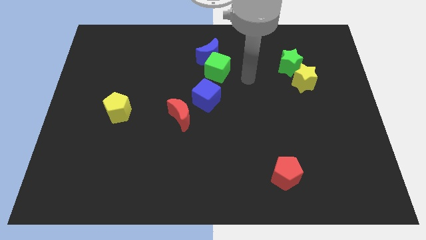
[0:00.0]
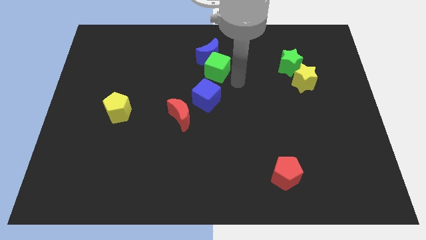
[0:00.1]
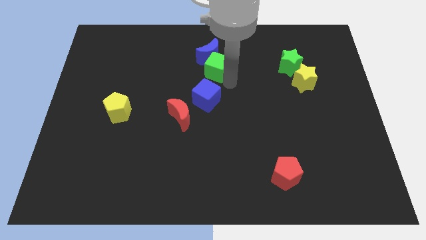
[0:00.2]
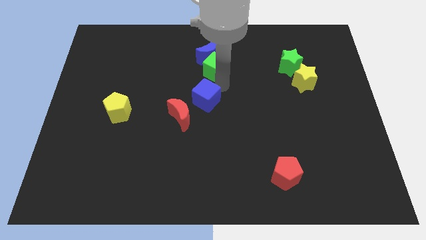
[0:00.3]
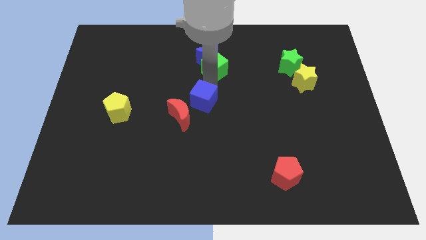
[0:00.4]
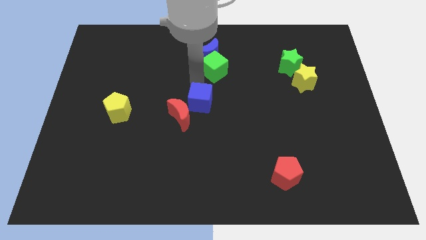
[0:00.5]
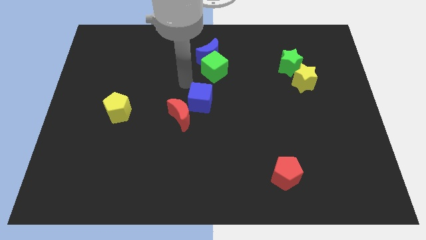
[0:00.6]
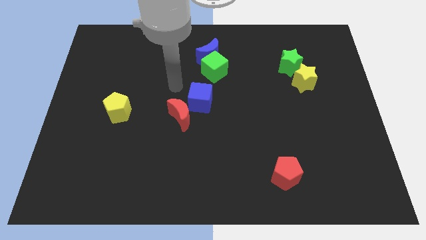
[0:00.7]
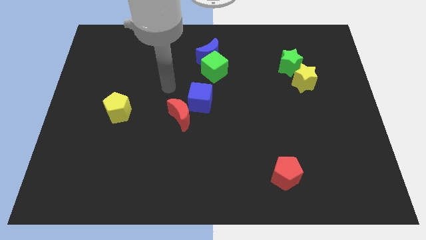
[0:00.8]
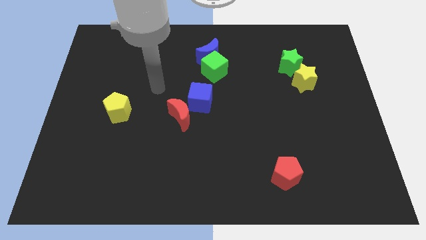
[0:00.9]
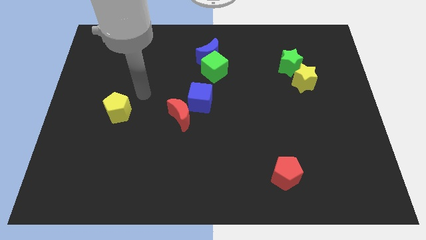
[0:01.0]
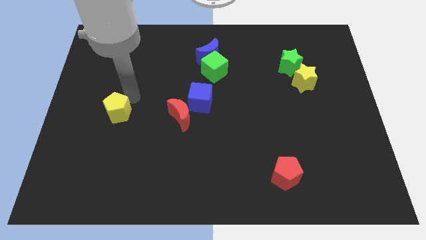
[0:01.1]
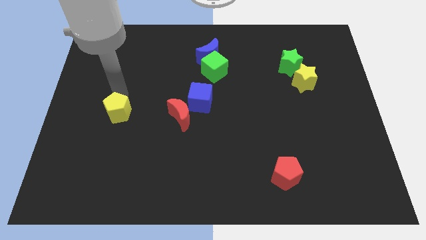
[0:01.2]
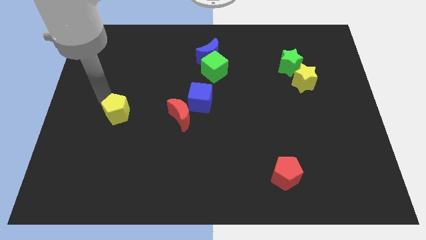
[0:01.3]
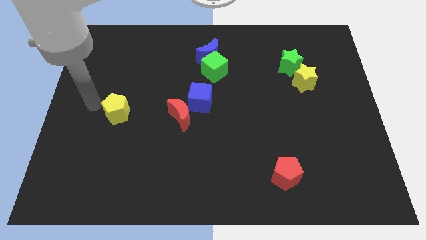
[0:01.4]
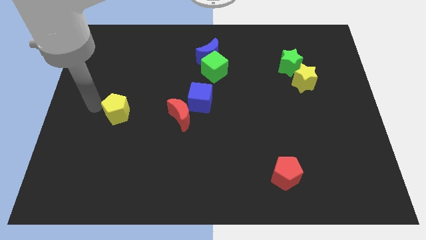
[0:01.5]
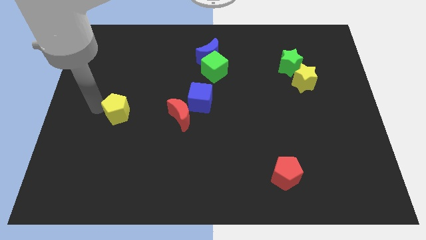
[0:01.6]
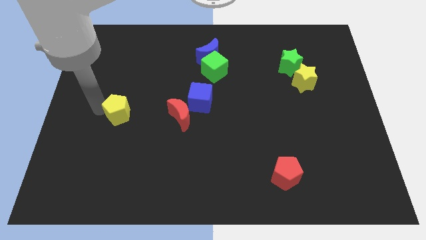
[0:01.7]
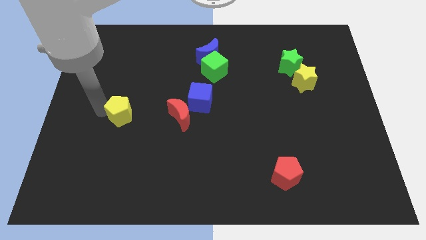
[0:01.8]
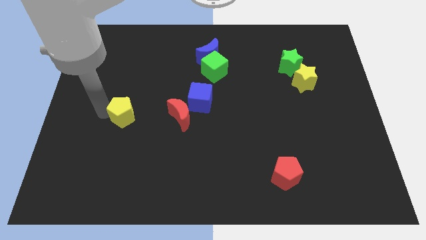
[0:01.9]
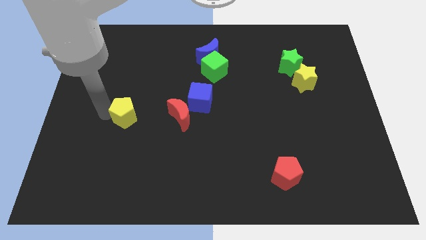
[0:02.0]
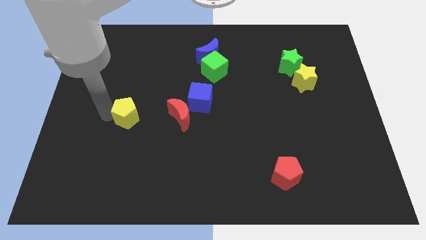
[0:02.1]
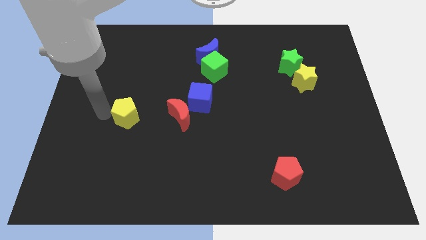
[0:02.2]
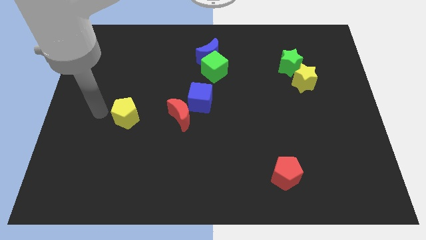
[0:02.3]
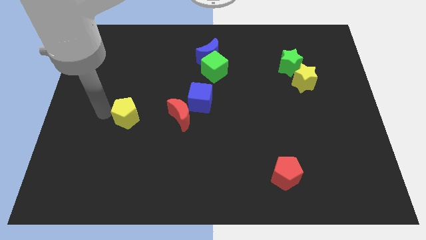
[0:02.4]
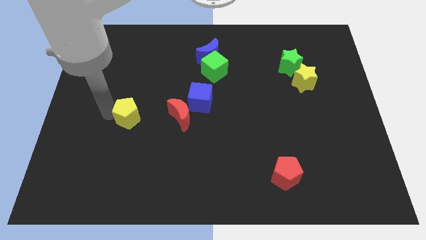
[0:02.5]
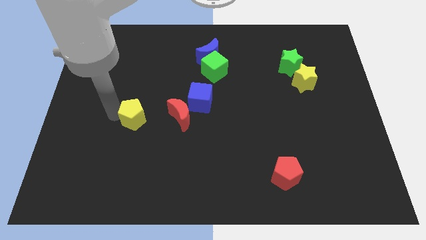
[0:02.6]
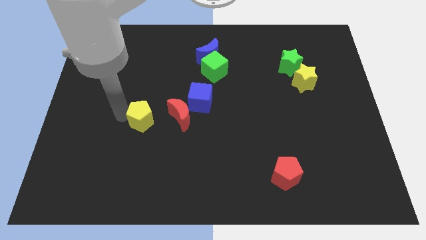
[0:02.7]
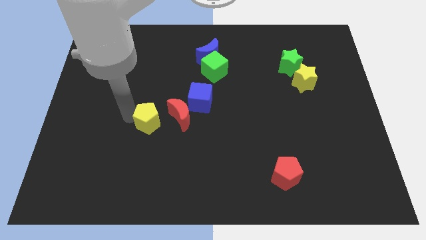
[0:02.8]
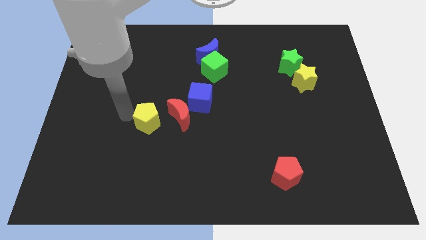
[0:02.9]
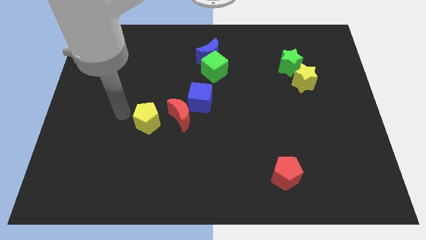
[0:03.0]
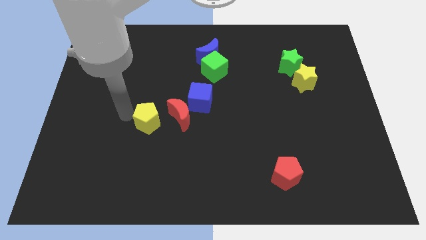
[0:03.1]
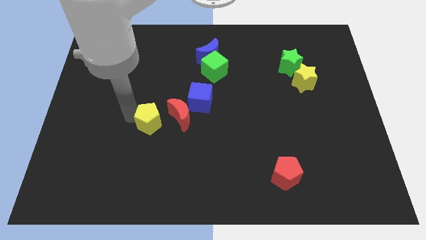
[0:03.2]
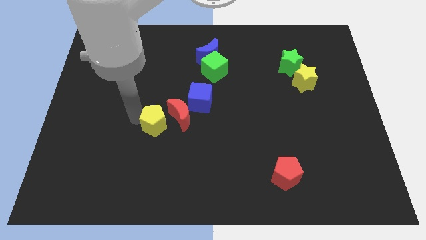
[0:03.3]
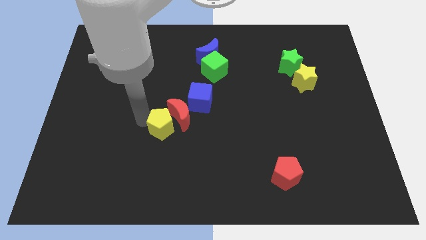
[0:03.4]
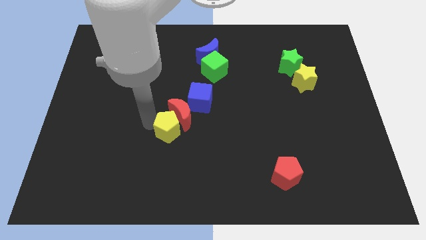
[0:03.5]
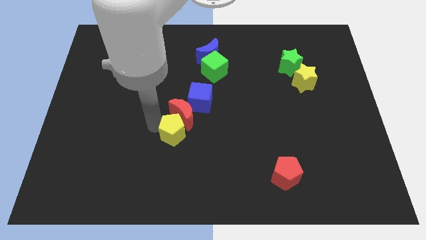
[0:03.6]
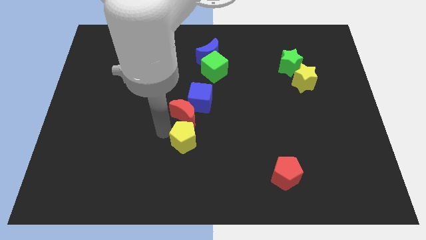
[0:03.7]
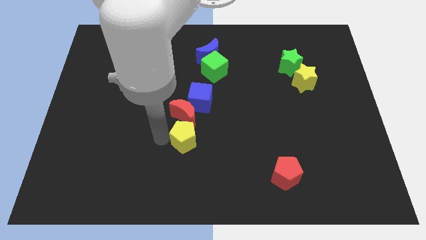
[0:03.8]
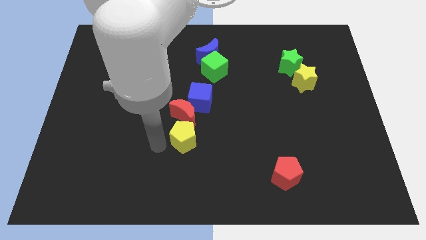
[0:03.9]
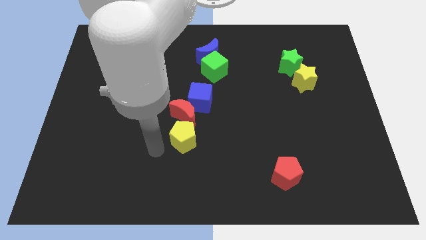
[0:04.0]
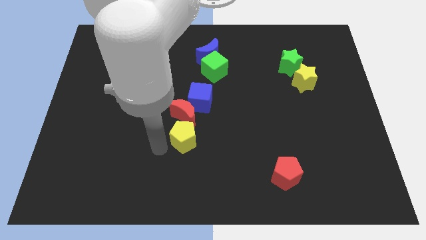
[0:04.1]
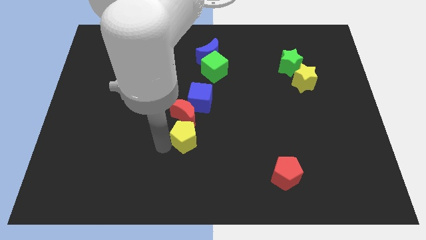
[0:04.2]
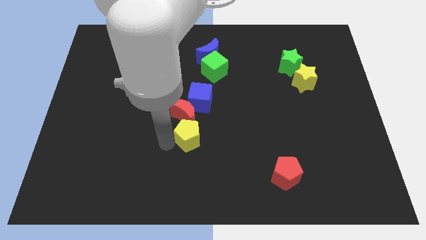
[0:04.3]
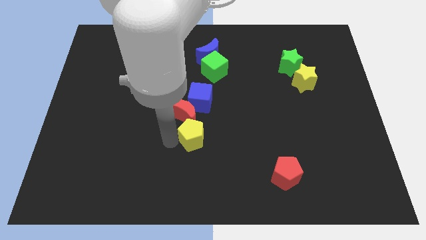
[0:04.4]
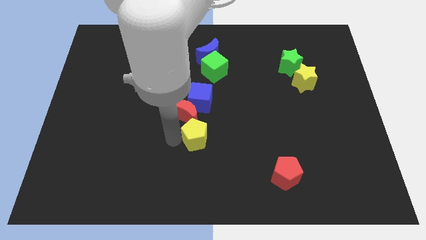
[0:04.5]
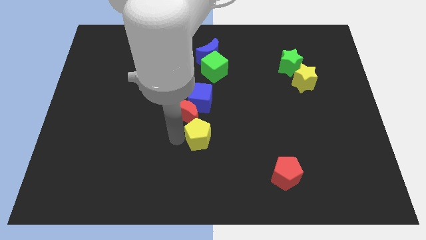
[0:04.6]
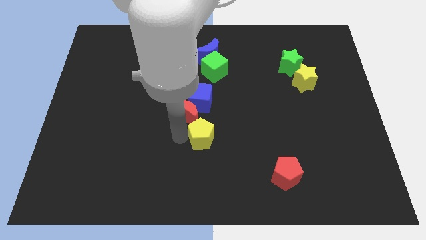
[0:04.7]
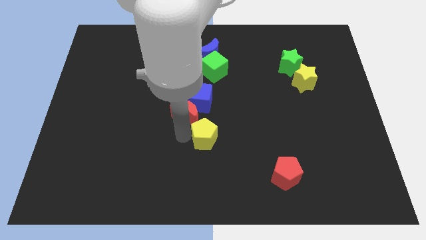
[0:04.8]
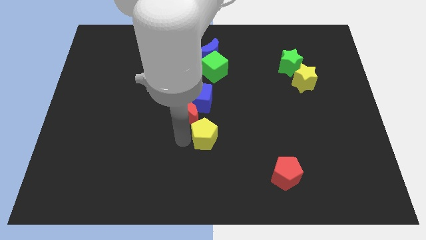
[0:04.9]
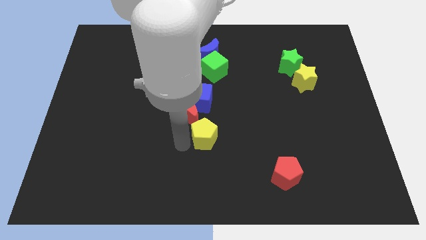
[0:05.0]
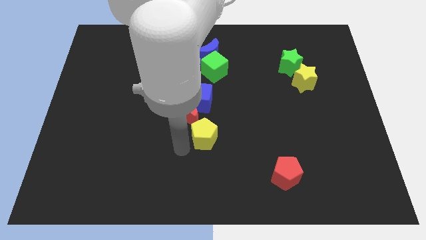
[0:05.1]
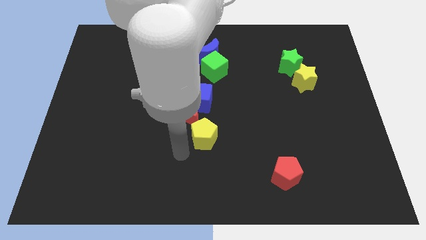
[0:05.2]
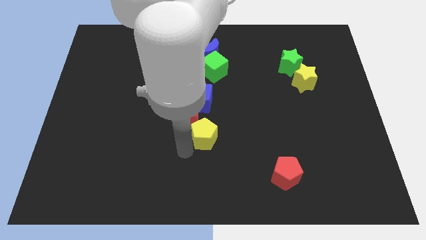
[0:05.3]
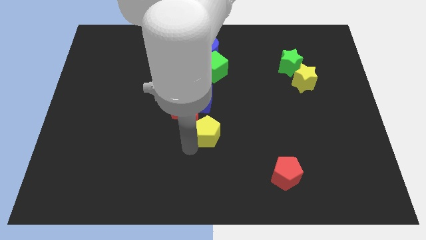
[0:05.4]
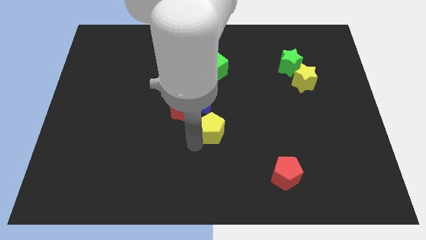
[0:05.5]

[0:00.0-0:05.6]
push the yellow pentagon right

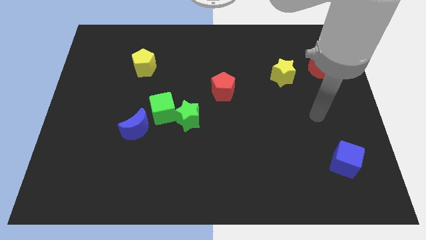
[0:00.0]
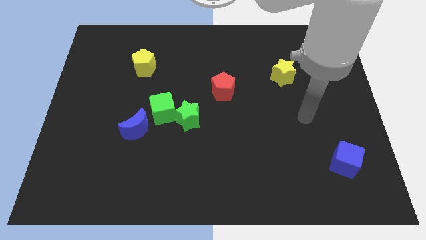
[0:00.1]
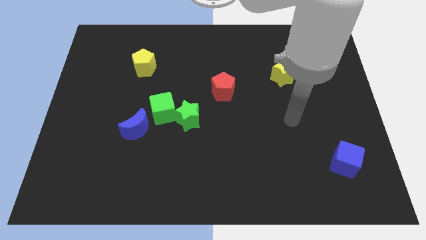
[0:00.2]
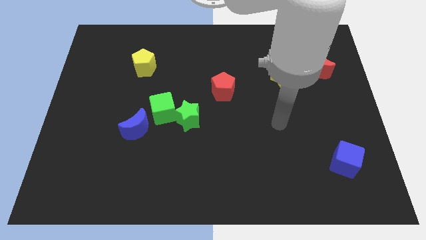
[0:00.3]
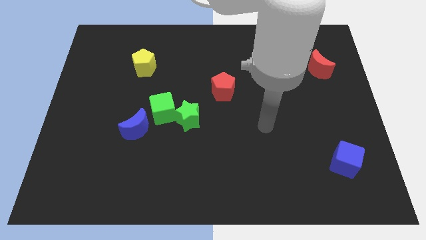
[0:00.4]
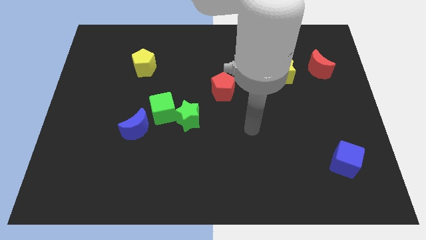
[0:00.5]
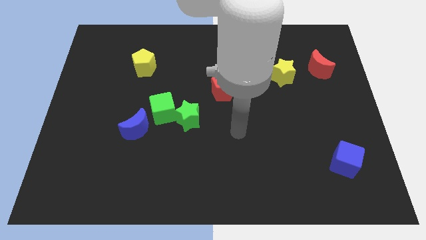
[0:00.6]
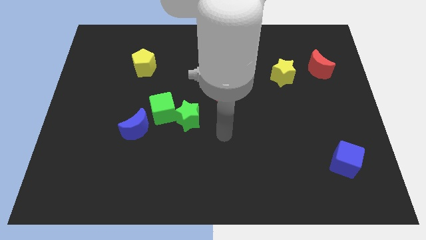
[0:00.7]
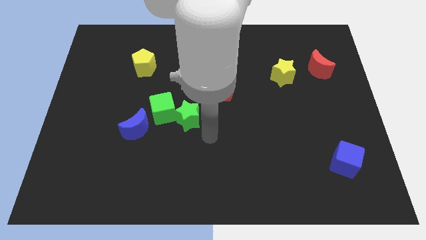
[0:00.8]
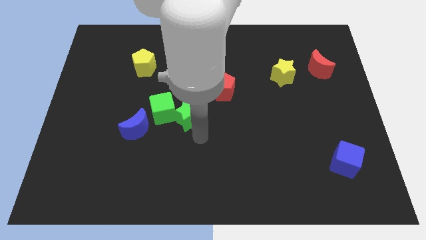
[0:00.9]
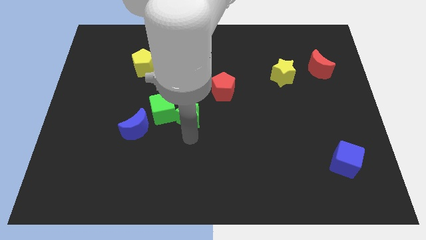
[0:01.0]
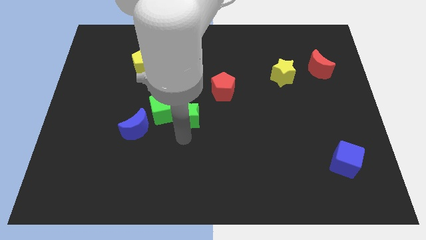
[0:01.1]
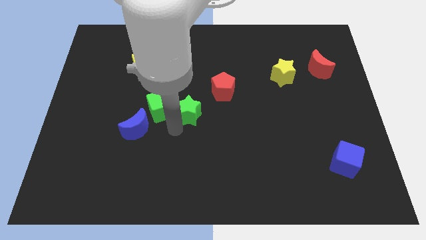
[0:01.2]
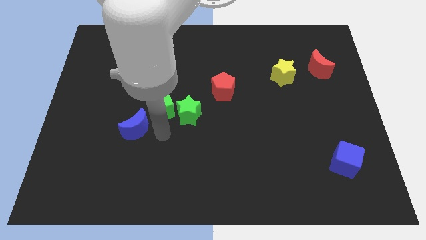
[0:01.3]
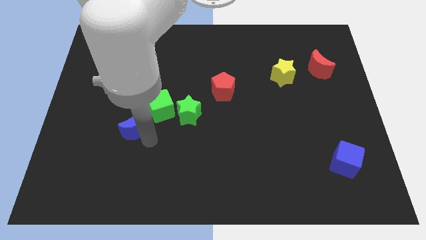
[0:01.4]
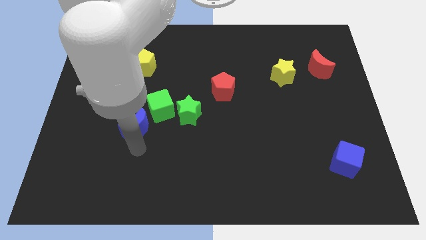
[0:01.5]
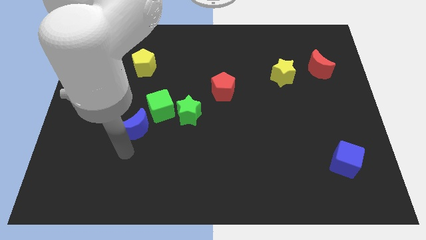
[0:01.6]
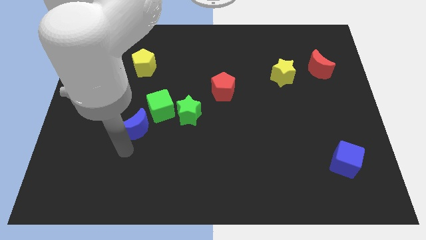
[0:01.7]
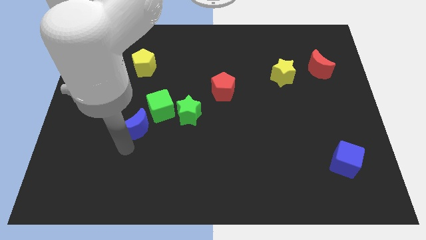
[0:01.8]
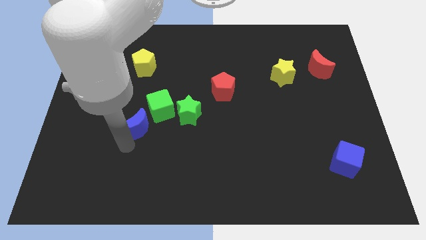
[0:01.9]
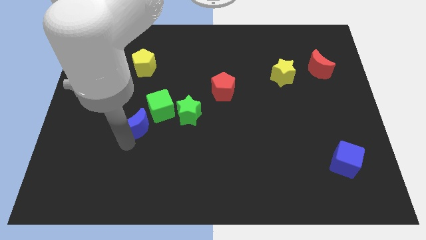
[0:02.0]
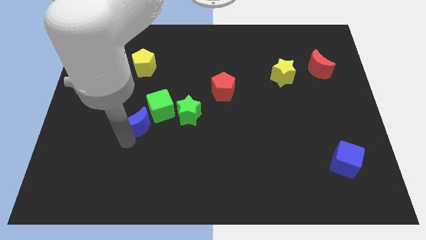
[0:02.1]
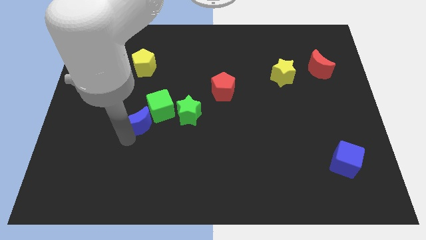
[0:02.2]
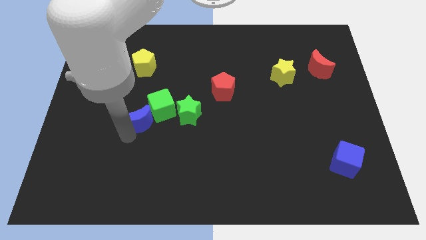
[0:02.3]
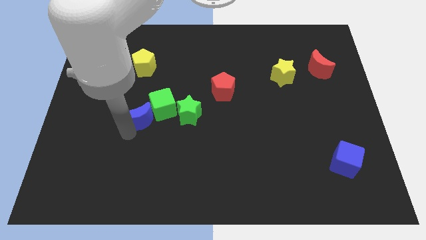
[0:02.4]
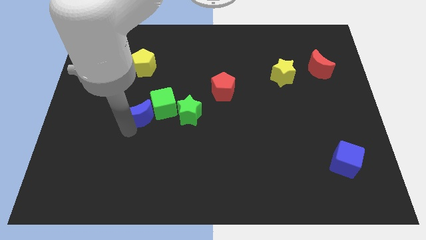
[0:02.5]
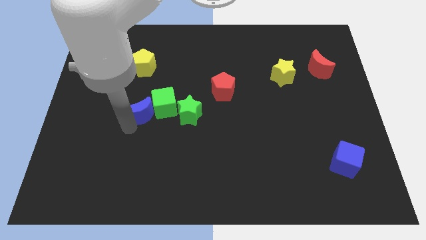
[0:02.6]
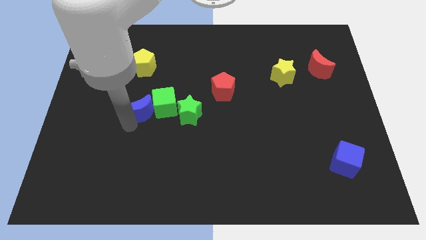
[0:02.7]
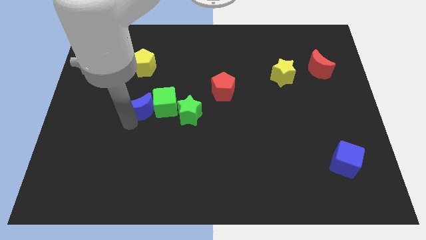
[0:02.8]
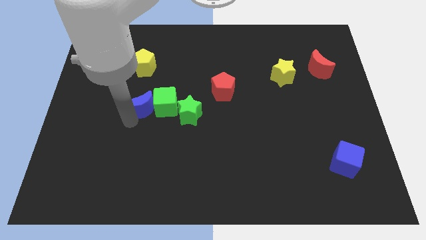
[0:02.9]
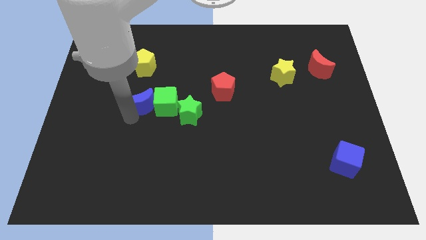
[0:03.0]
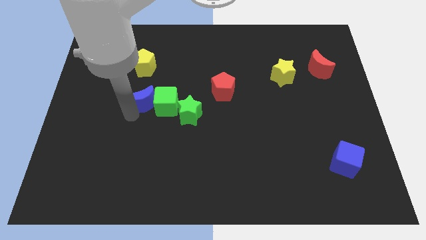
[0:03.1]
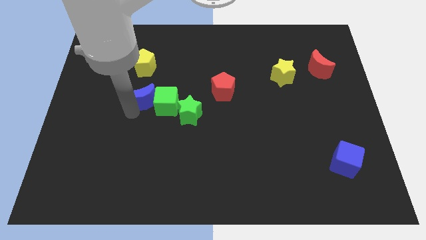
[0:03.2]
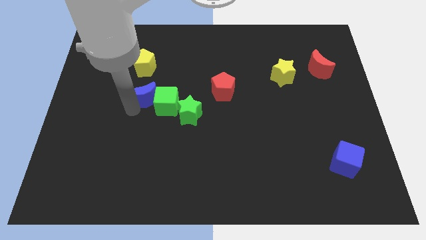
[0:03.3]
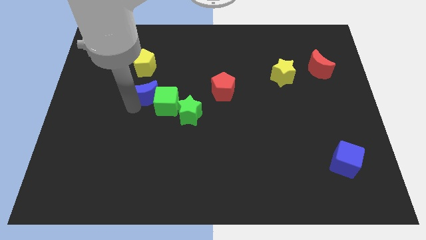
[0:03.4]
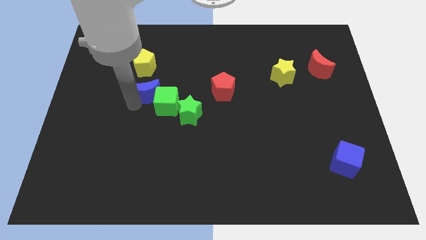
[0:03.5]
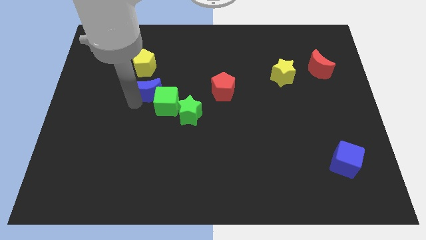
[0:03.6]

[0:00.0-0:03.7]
push the blue moon diagonally up and right somewhat
